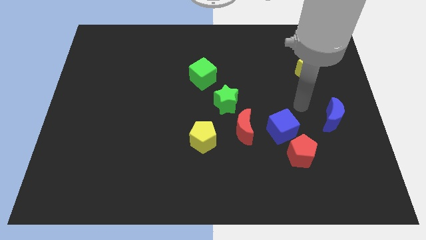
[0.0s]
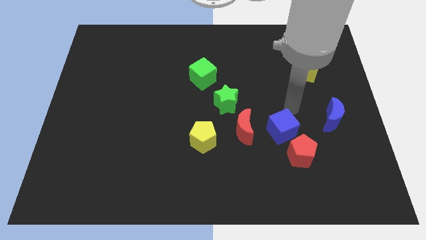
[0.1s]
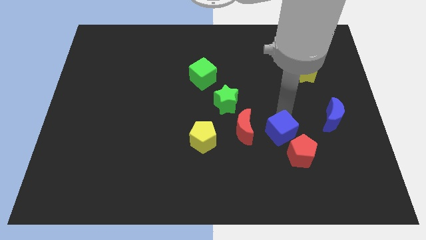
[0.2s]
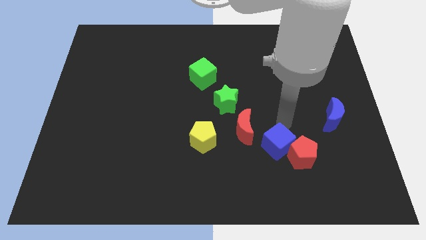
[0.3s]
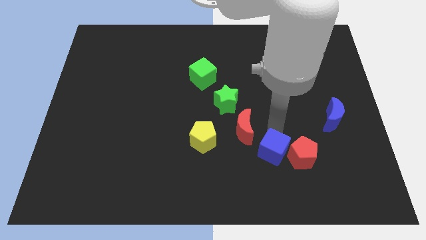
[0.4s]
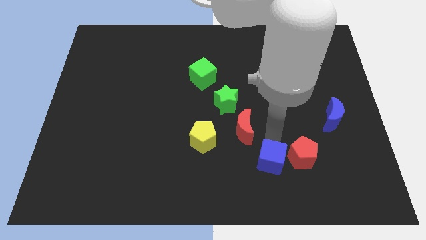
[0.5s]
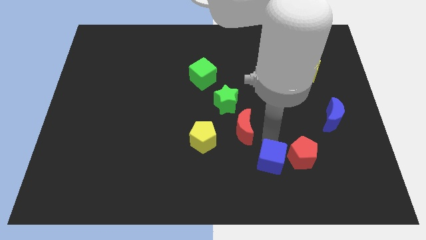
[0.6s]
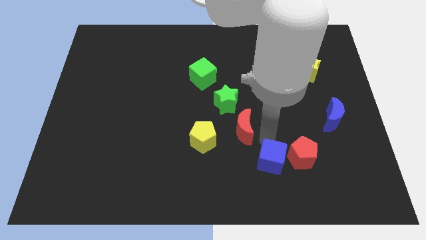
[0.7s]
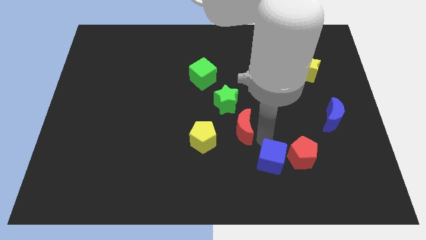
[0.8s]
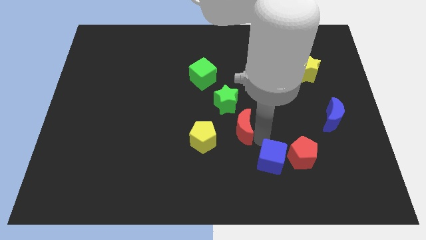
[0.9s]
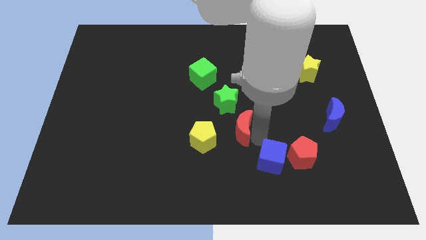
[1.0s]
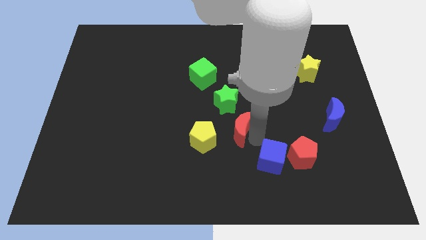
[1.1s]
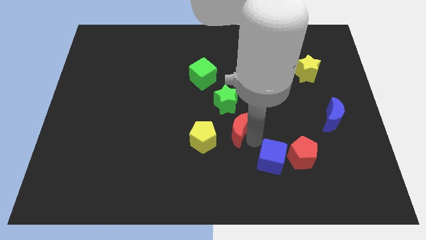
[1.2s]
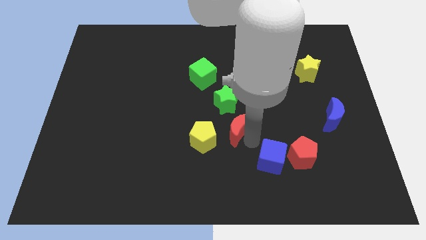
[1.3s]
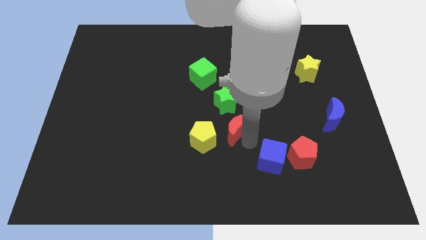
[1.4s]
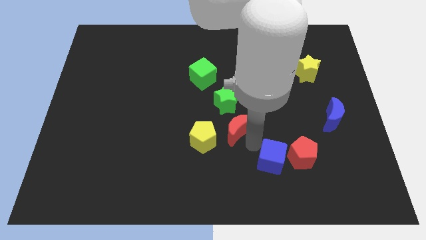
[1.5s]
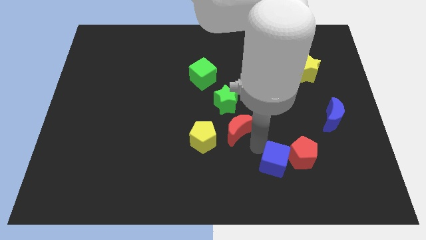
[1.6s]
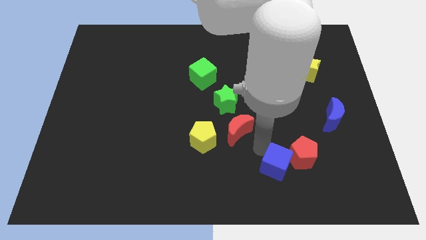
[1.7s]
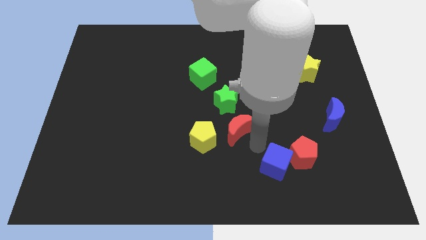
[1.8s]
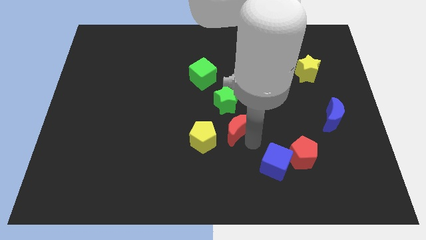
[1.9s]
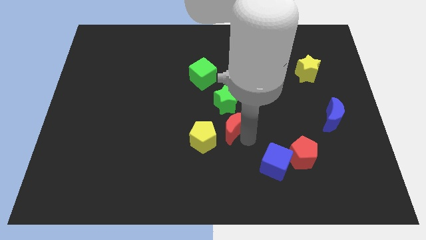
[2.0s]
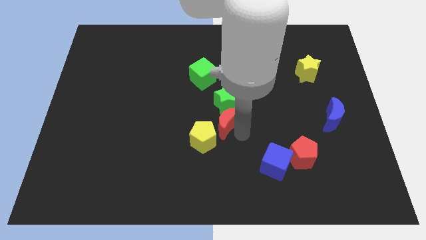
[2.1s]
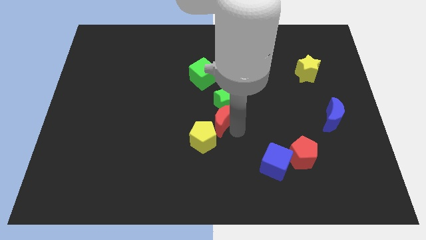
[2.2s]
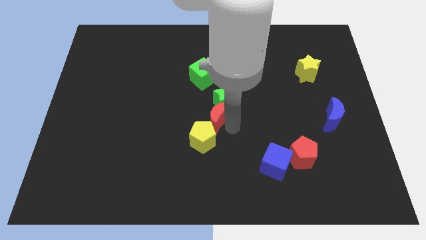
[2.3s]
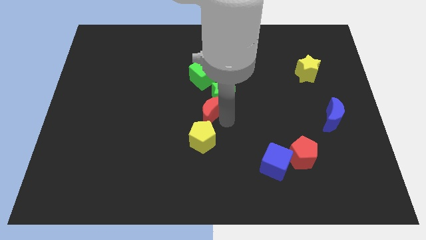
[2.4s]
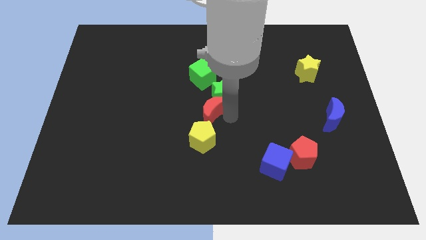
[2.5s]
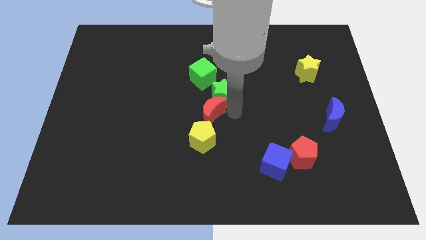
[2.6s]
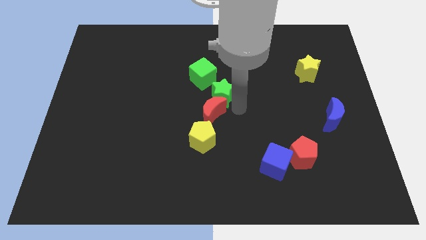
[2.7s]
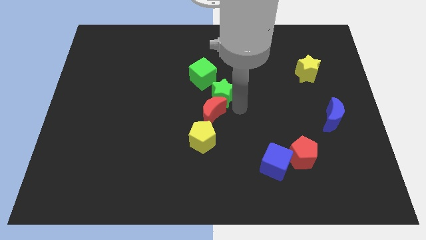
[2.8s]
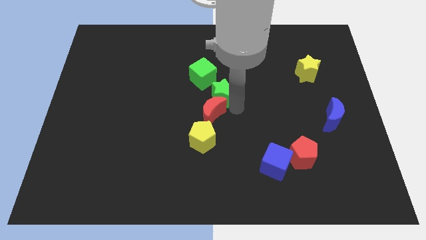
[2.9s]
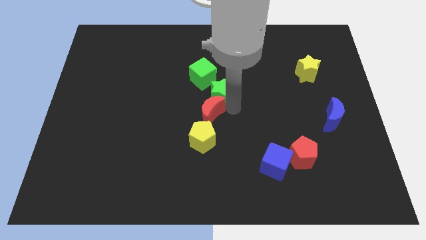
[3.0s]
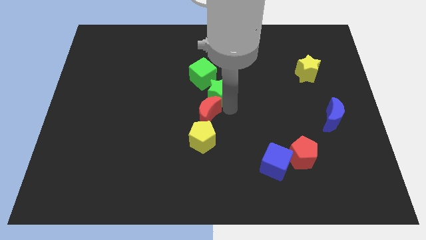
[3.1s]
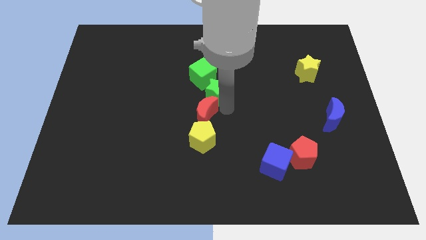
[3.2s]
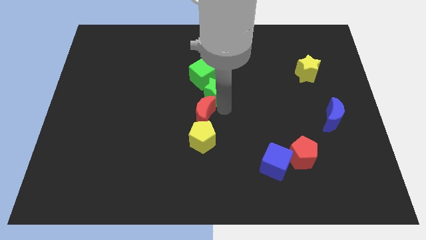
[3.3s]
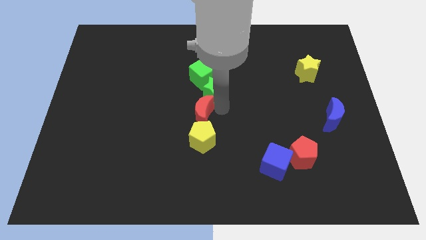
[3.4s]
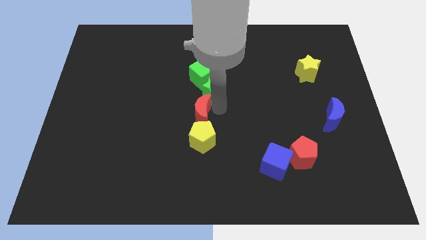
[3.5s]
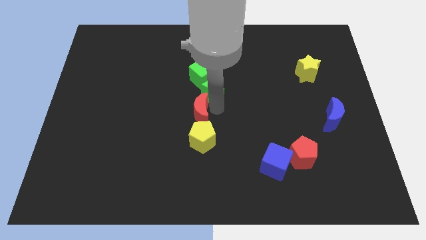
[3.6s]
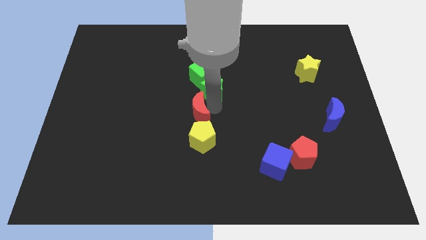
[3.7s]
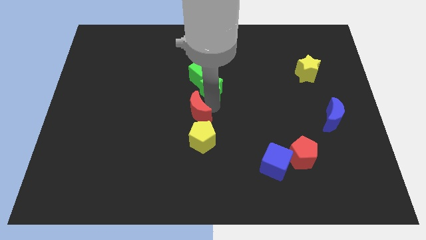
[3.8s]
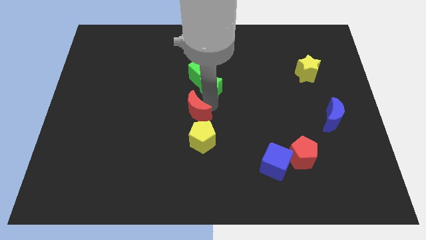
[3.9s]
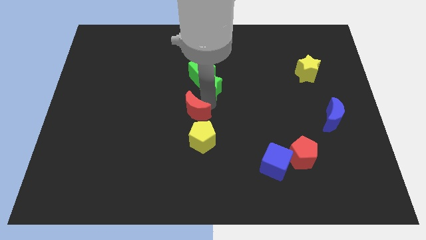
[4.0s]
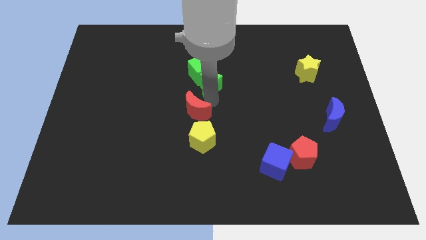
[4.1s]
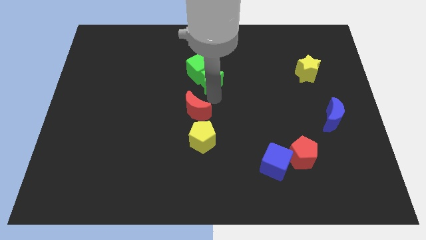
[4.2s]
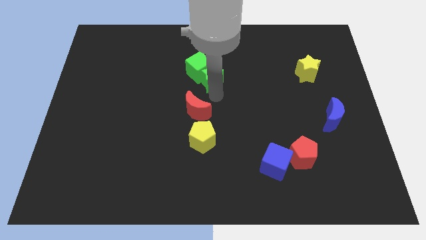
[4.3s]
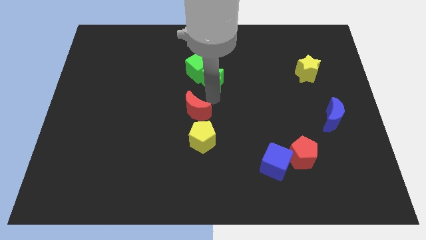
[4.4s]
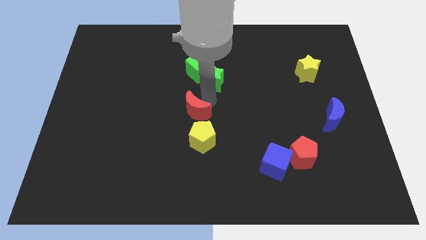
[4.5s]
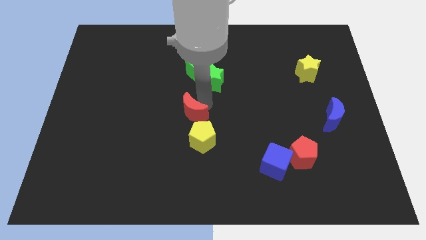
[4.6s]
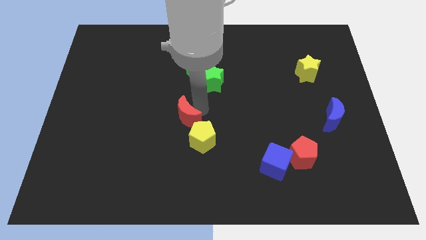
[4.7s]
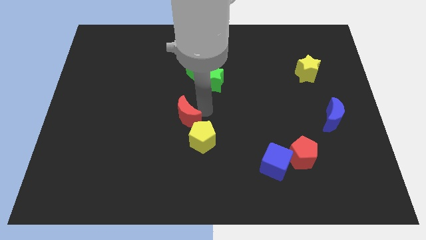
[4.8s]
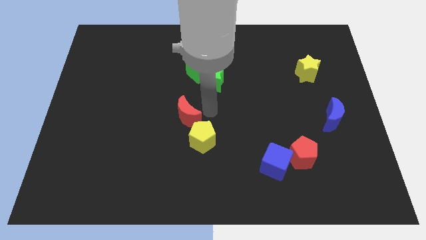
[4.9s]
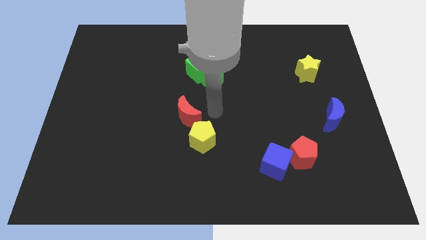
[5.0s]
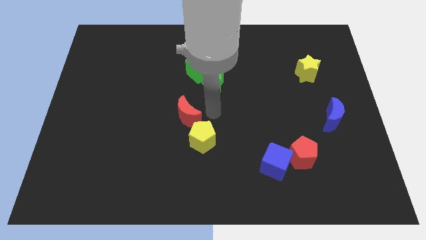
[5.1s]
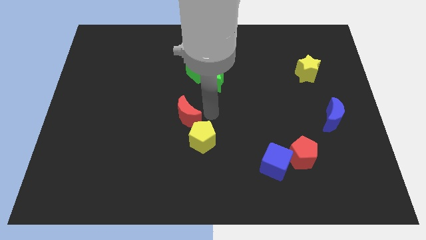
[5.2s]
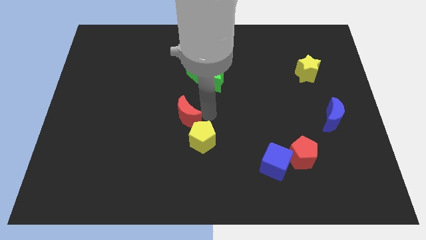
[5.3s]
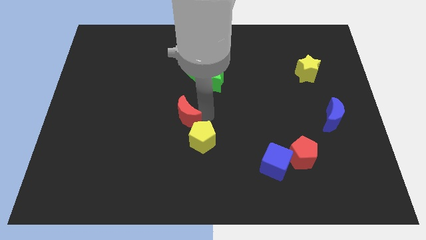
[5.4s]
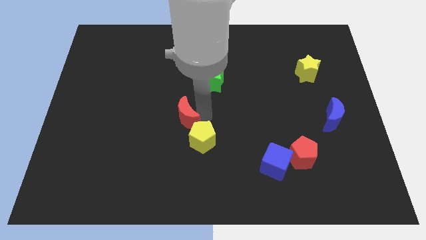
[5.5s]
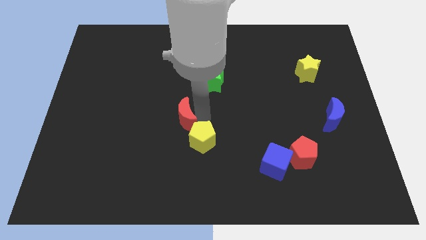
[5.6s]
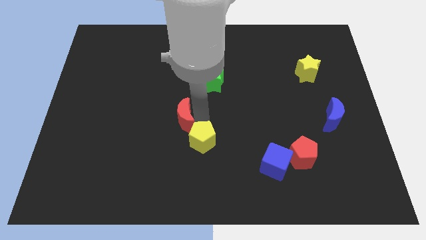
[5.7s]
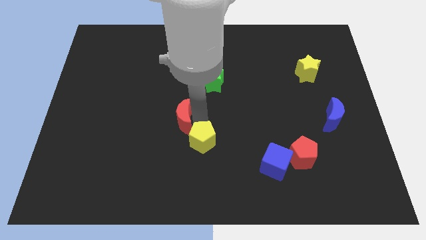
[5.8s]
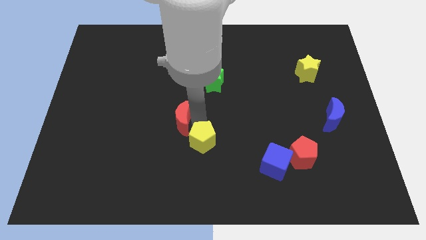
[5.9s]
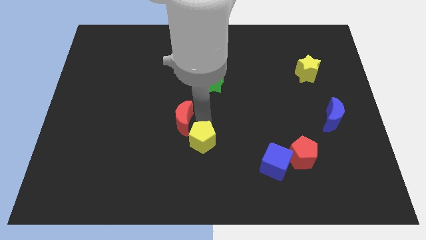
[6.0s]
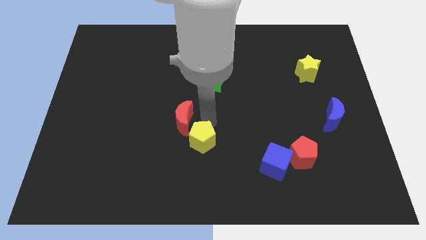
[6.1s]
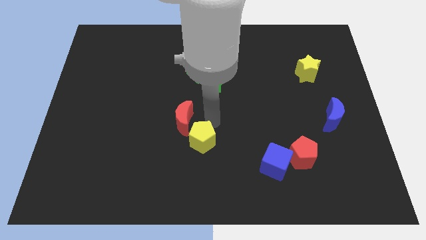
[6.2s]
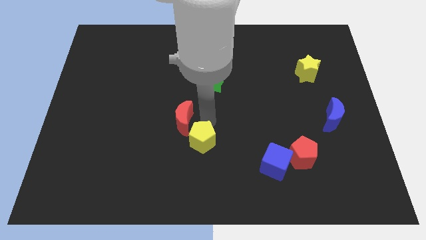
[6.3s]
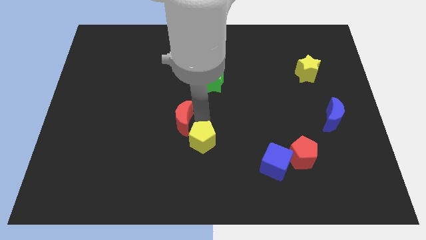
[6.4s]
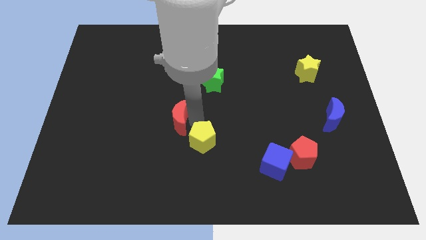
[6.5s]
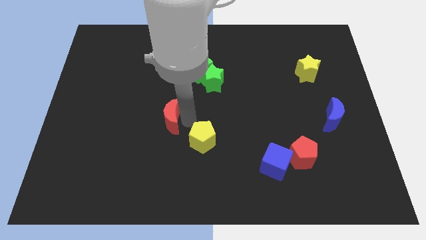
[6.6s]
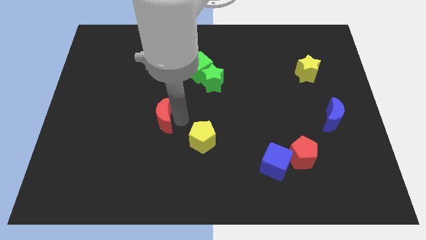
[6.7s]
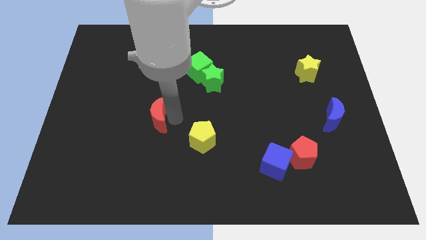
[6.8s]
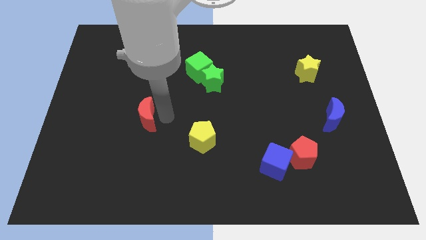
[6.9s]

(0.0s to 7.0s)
slide the red moon to the left

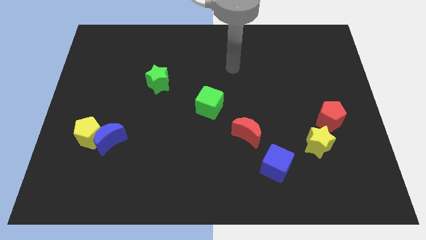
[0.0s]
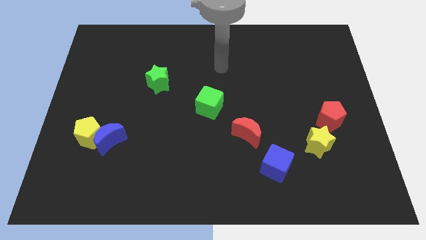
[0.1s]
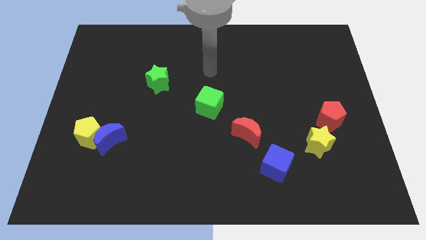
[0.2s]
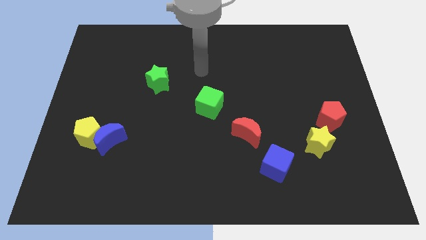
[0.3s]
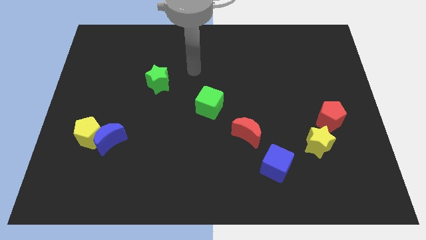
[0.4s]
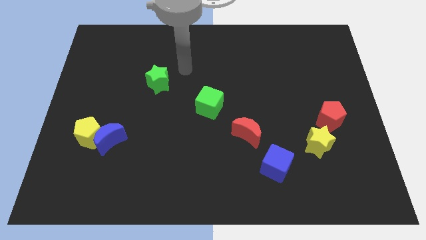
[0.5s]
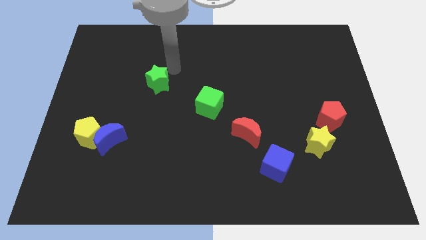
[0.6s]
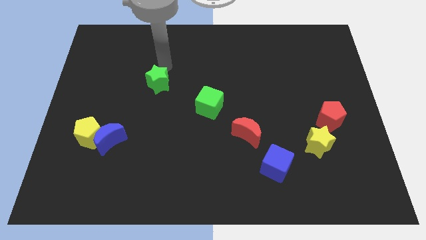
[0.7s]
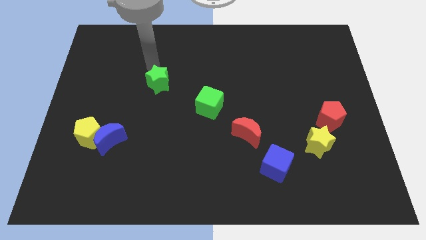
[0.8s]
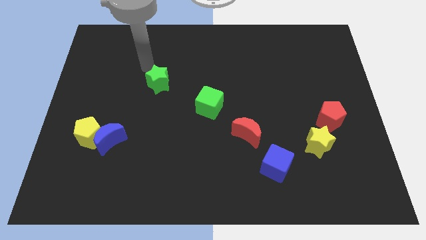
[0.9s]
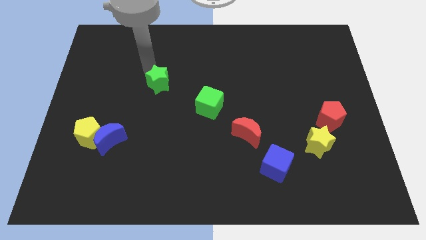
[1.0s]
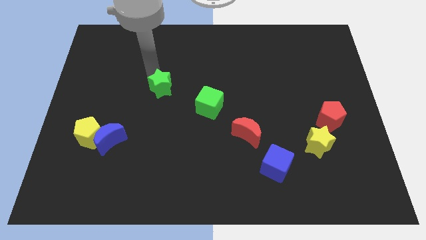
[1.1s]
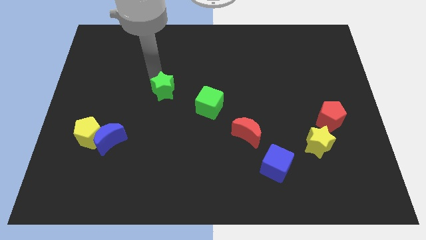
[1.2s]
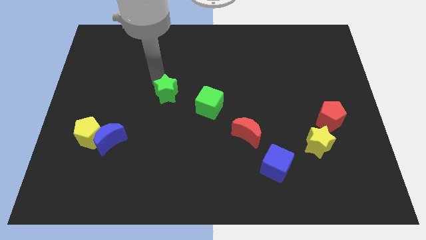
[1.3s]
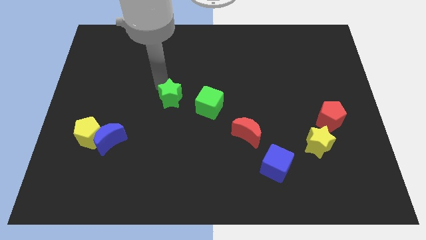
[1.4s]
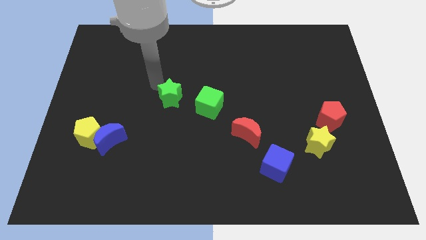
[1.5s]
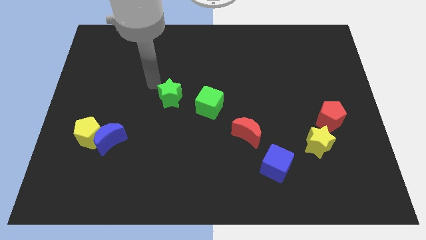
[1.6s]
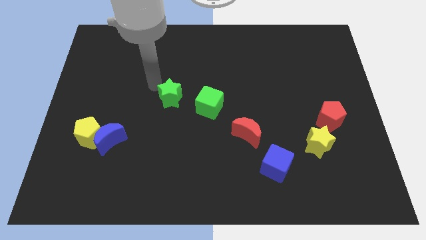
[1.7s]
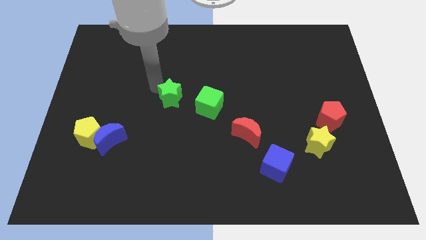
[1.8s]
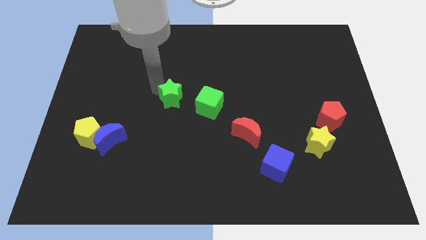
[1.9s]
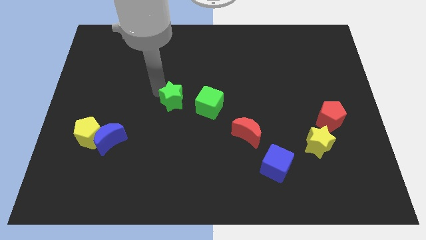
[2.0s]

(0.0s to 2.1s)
move the green star downwards and to the right a little
